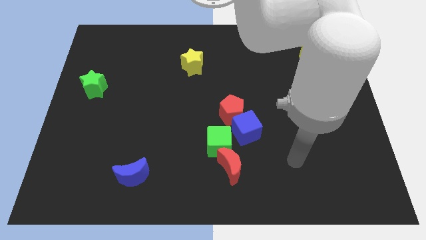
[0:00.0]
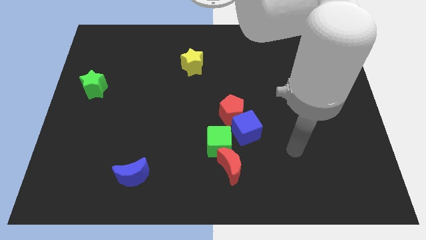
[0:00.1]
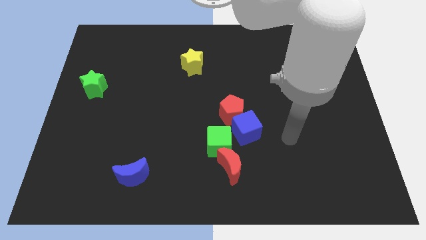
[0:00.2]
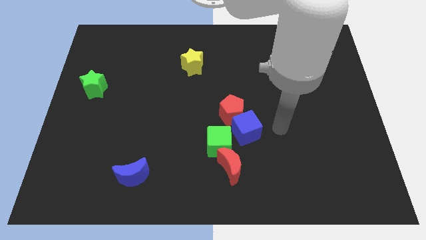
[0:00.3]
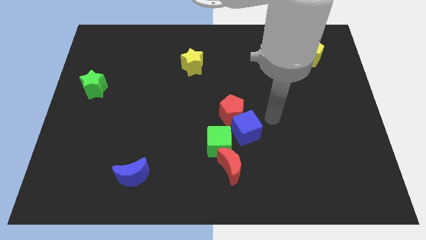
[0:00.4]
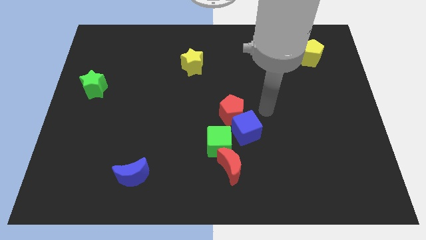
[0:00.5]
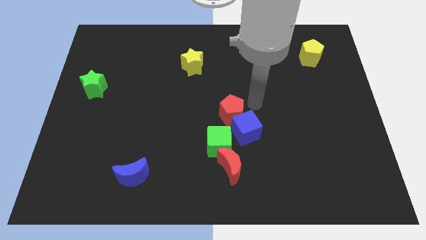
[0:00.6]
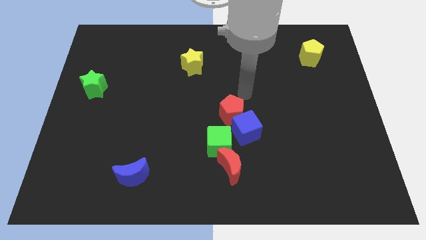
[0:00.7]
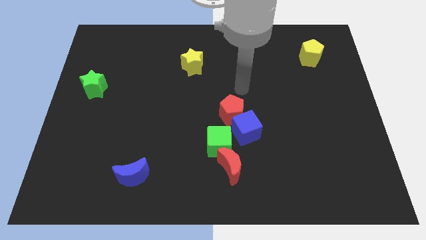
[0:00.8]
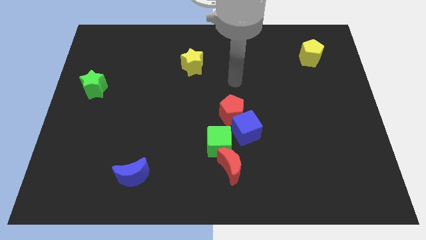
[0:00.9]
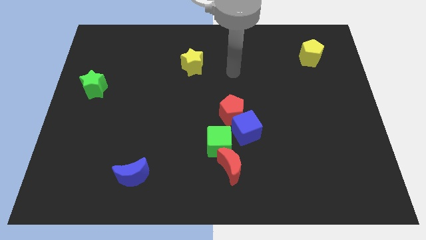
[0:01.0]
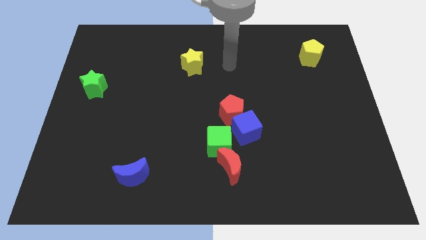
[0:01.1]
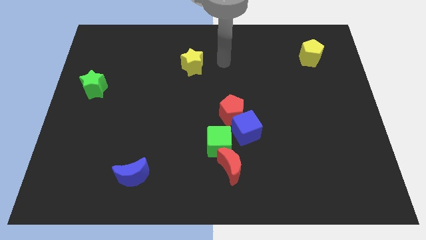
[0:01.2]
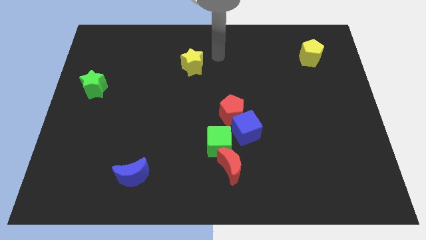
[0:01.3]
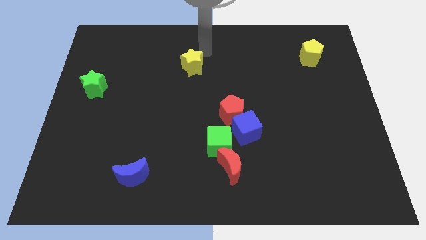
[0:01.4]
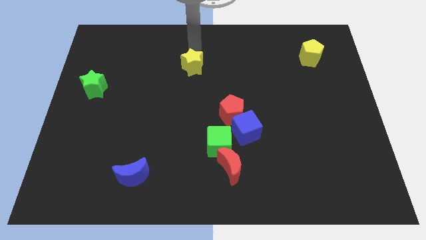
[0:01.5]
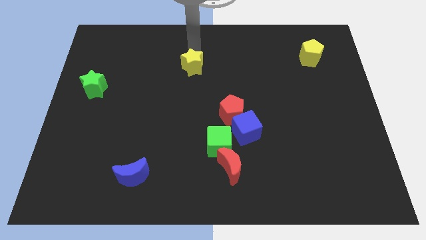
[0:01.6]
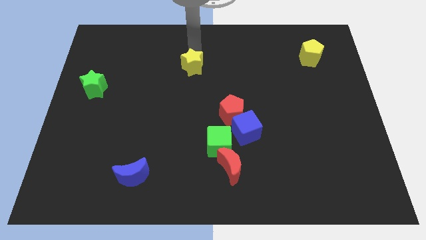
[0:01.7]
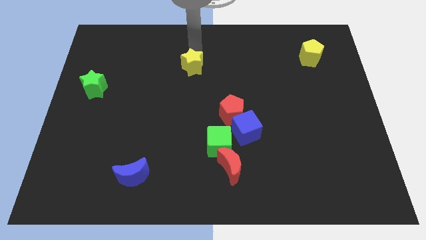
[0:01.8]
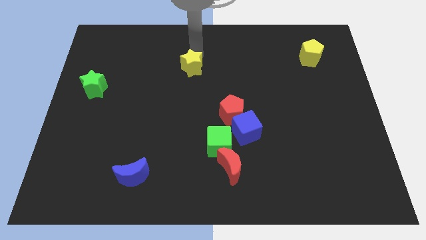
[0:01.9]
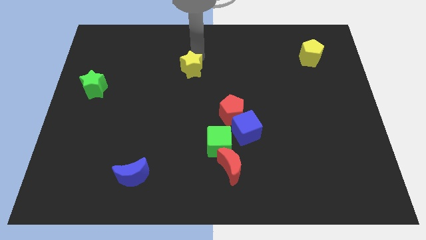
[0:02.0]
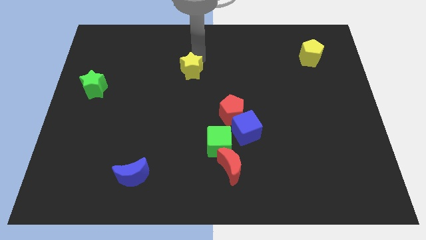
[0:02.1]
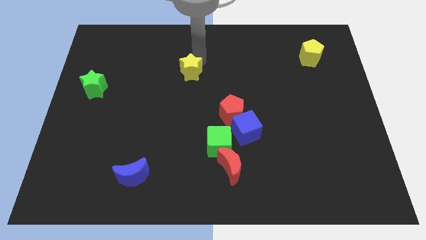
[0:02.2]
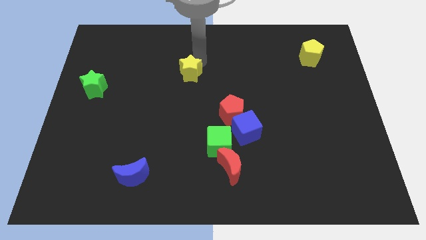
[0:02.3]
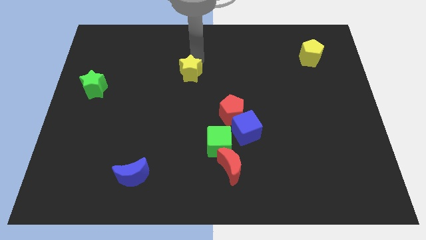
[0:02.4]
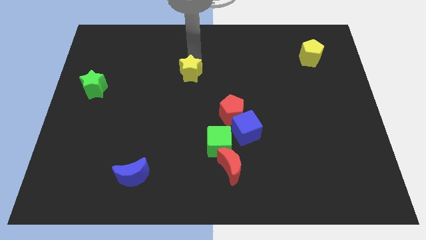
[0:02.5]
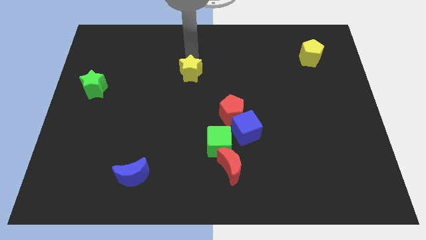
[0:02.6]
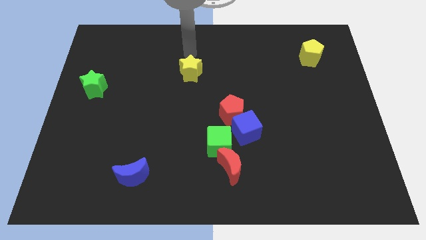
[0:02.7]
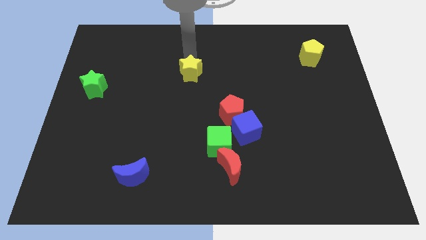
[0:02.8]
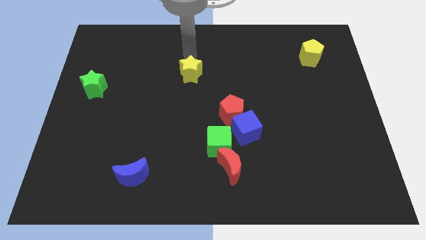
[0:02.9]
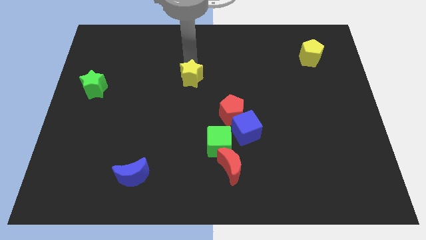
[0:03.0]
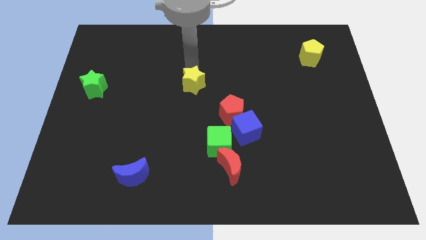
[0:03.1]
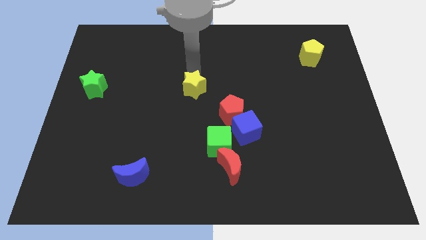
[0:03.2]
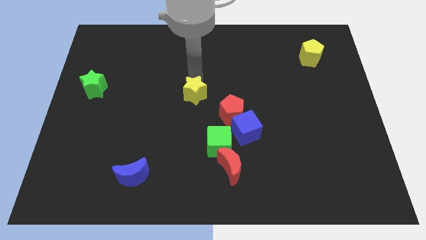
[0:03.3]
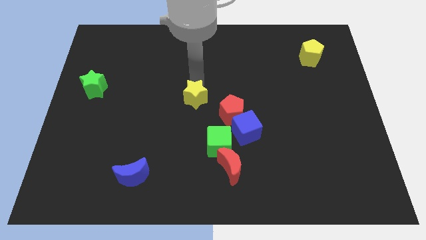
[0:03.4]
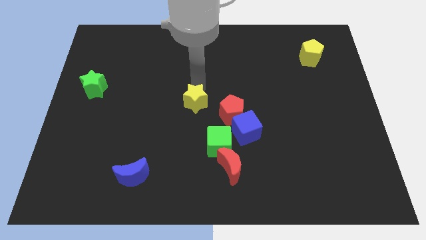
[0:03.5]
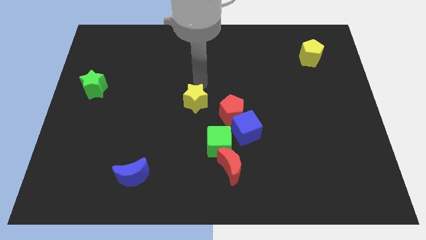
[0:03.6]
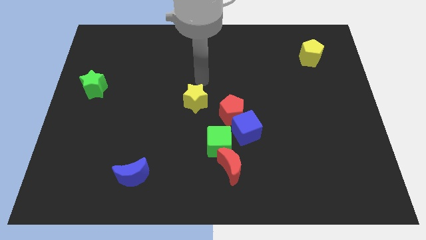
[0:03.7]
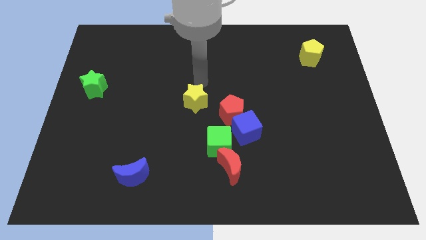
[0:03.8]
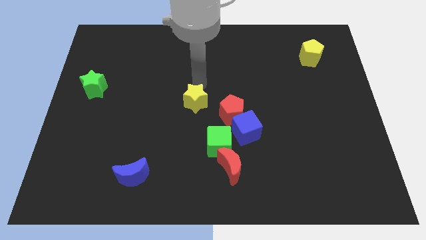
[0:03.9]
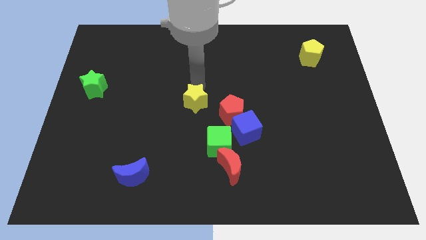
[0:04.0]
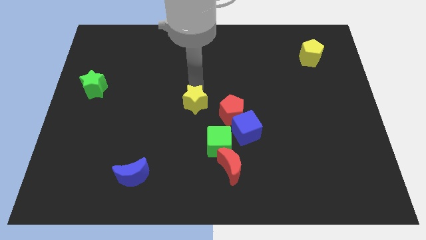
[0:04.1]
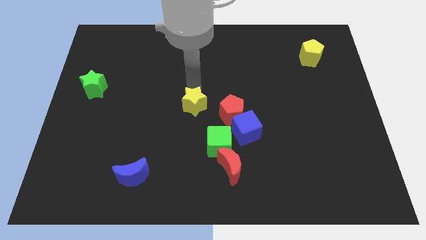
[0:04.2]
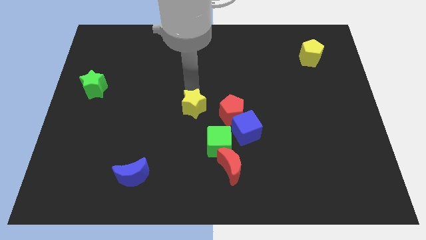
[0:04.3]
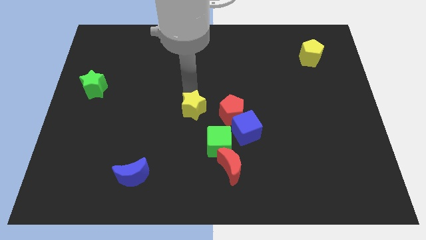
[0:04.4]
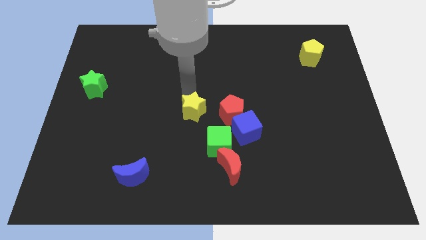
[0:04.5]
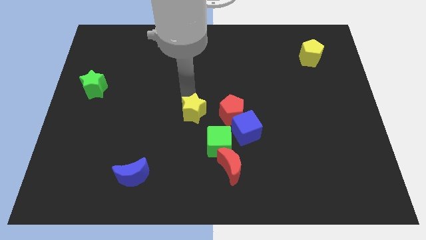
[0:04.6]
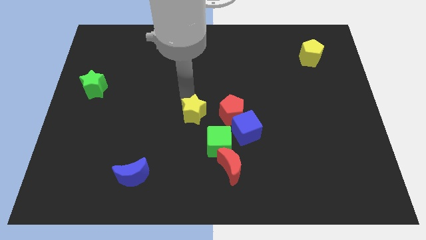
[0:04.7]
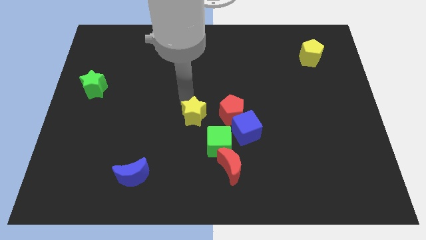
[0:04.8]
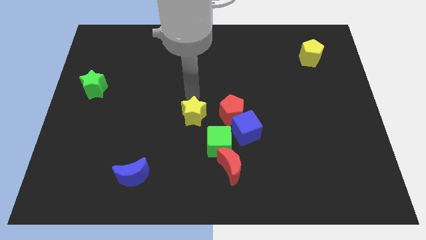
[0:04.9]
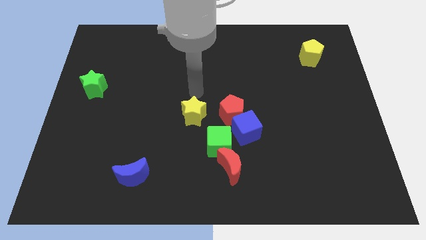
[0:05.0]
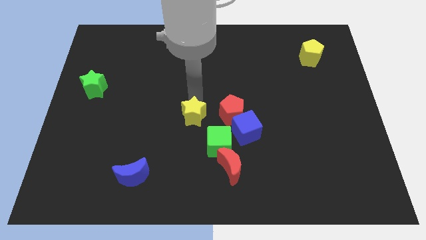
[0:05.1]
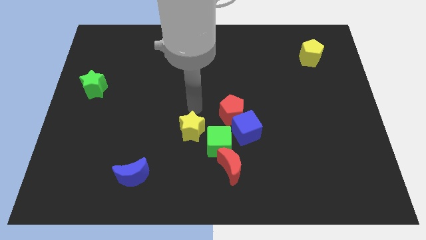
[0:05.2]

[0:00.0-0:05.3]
move the yellow star down

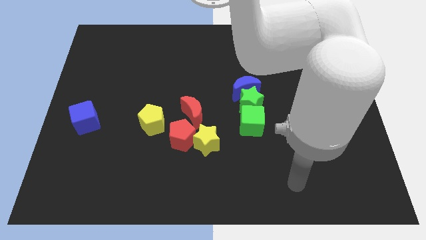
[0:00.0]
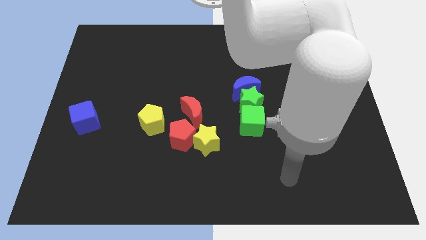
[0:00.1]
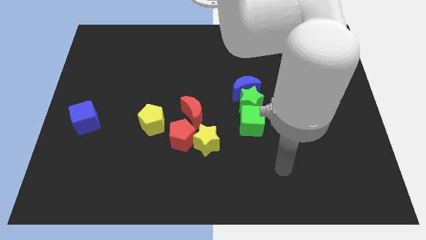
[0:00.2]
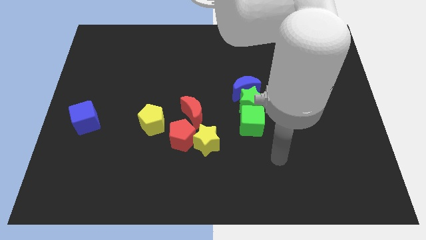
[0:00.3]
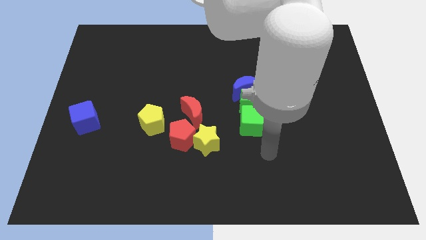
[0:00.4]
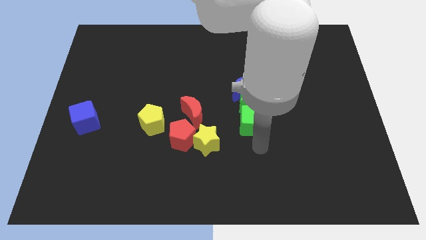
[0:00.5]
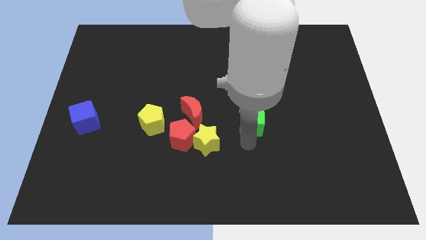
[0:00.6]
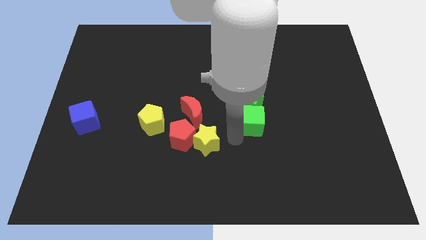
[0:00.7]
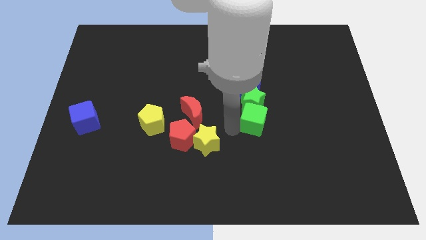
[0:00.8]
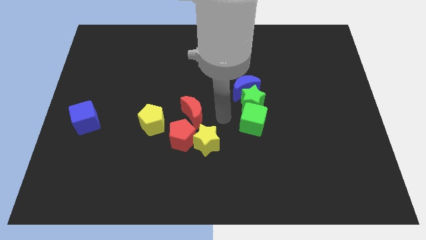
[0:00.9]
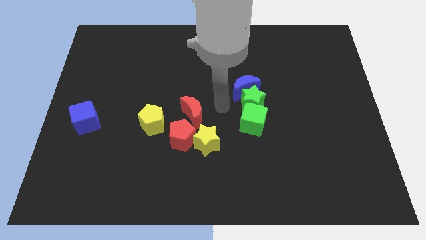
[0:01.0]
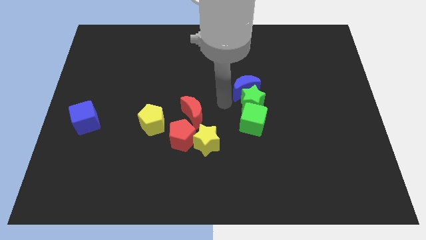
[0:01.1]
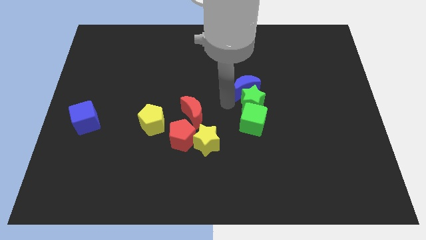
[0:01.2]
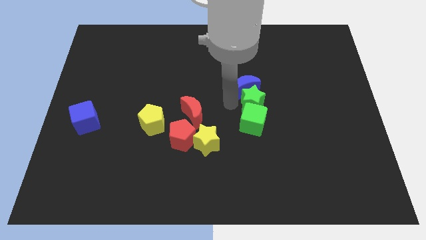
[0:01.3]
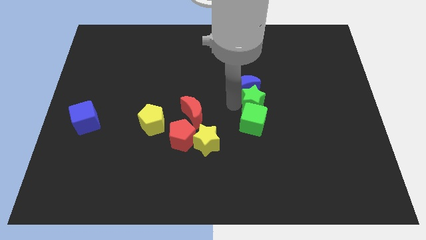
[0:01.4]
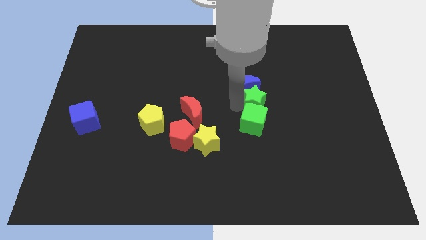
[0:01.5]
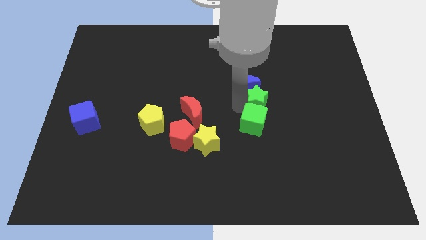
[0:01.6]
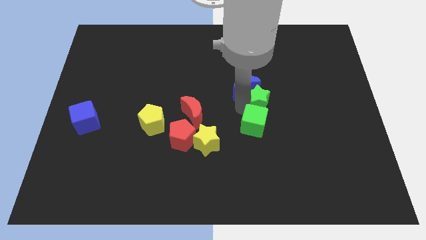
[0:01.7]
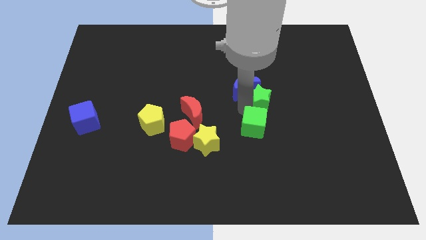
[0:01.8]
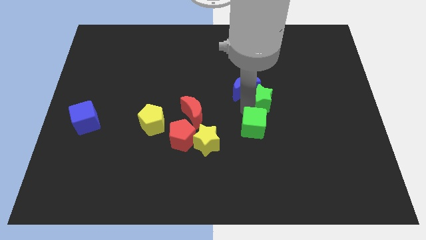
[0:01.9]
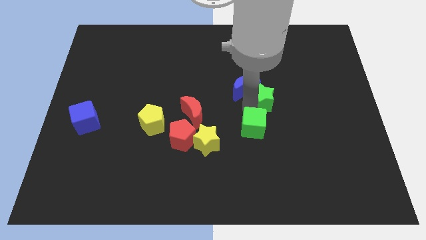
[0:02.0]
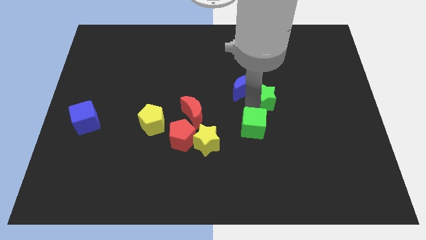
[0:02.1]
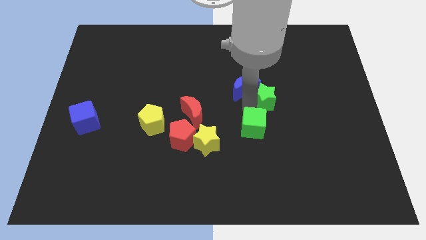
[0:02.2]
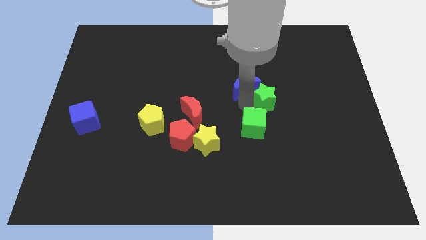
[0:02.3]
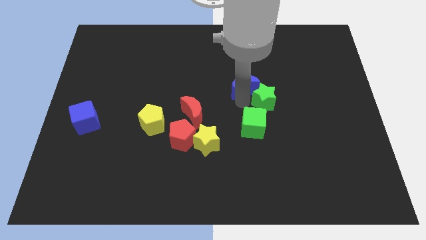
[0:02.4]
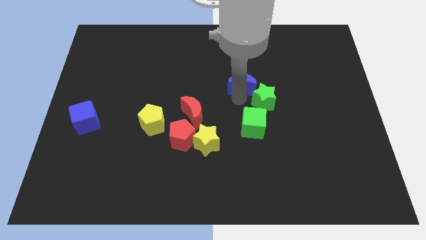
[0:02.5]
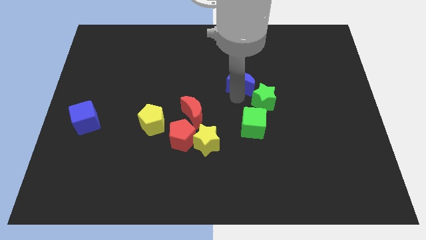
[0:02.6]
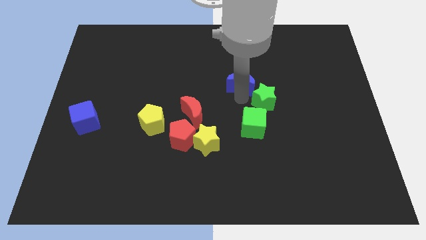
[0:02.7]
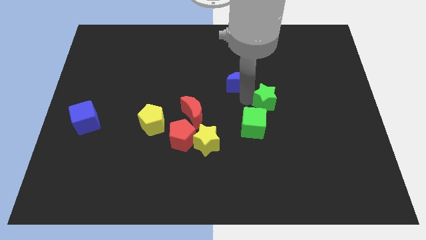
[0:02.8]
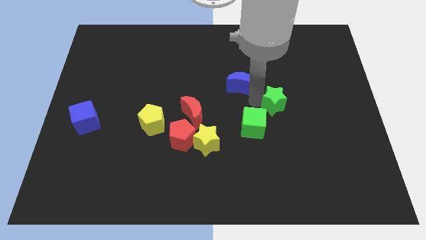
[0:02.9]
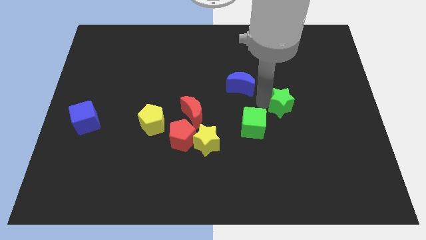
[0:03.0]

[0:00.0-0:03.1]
slightly push the green star right
